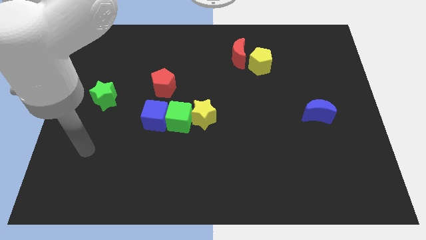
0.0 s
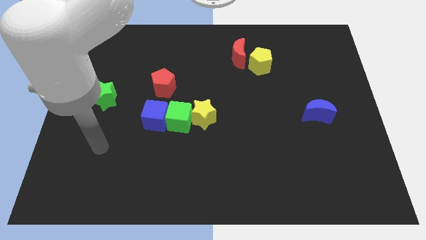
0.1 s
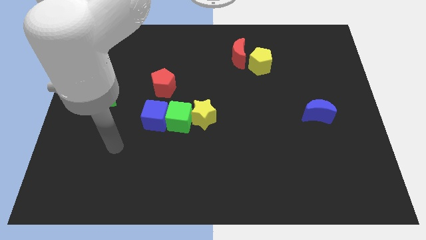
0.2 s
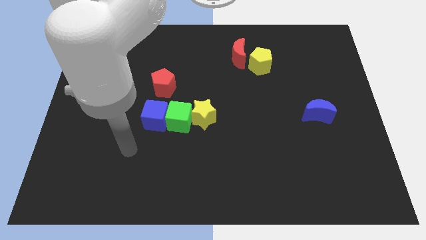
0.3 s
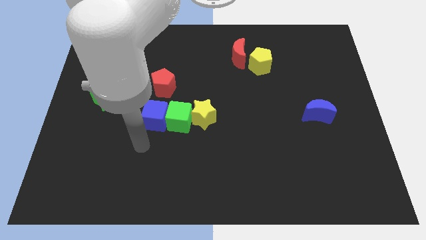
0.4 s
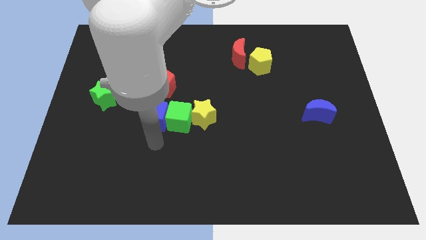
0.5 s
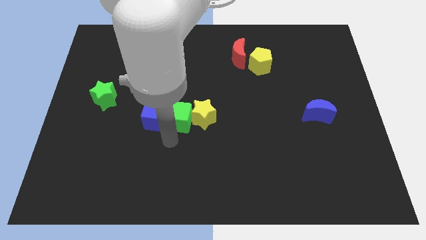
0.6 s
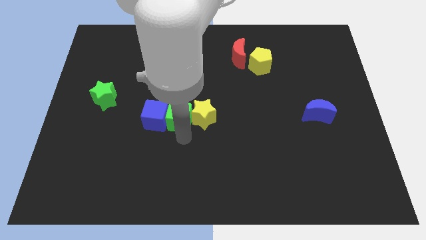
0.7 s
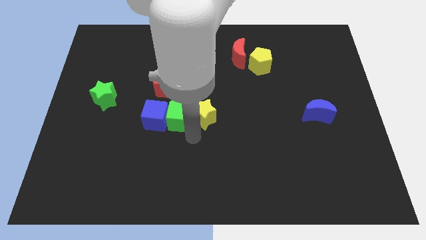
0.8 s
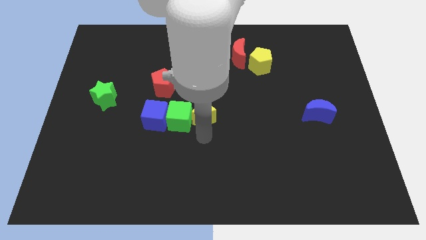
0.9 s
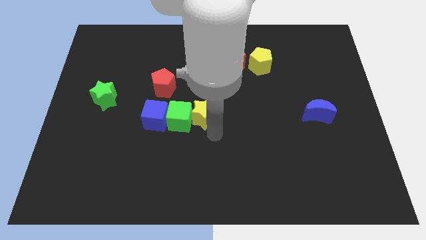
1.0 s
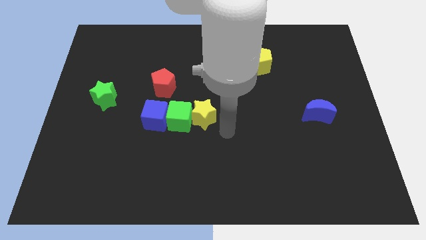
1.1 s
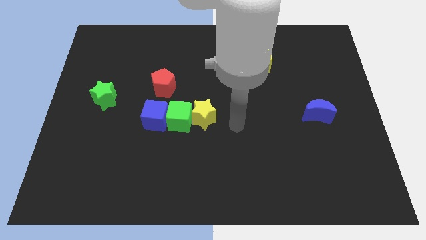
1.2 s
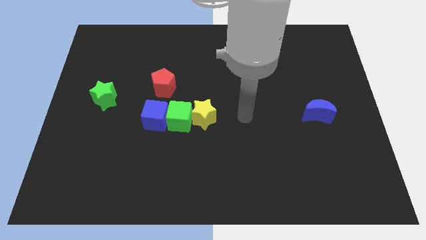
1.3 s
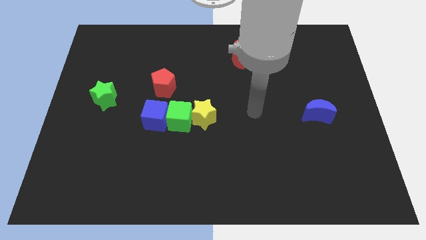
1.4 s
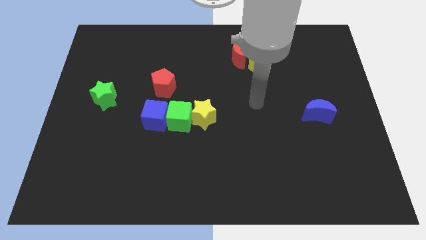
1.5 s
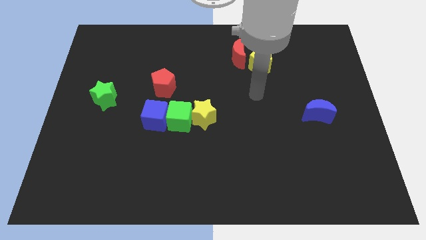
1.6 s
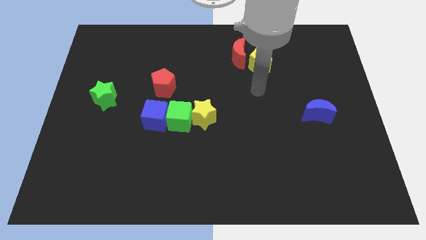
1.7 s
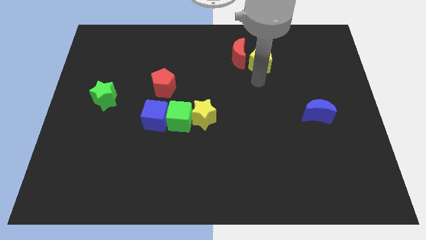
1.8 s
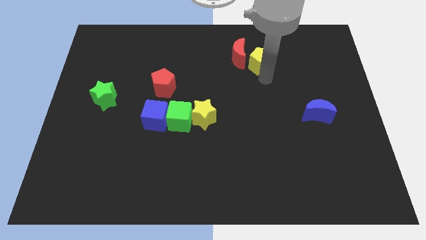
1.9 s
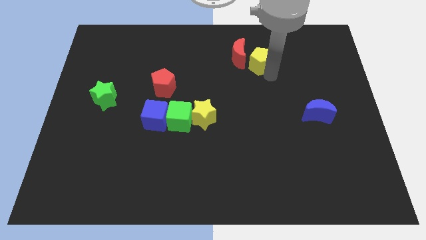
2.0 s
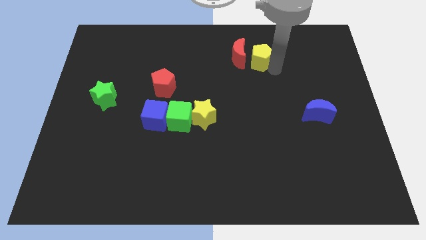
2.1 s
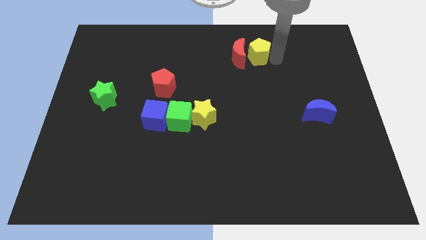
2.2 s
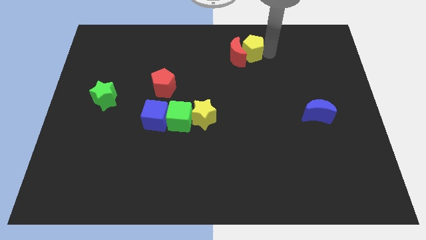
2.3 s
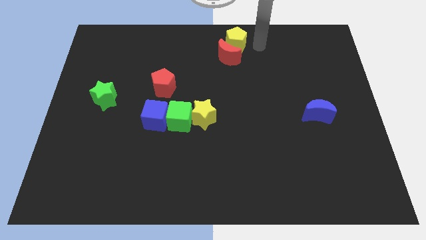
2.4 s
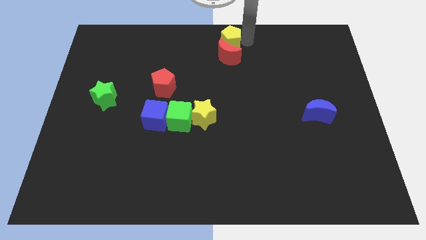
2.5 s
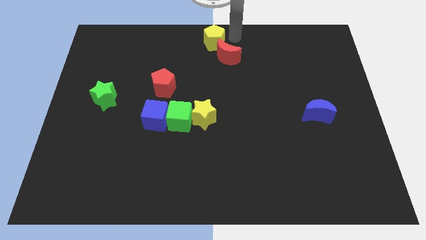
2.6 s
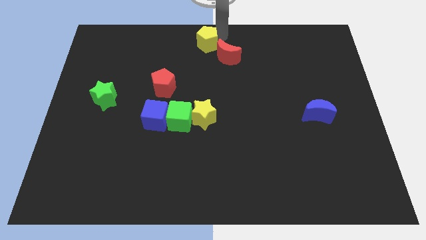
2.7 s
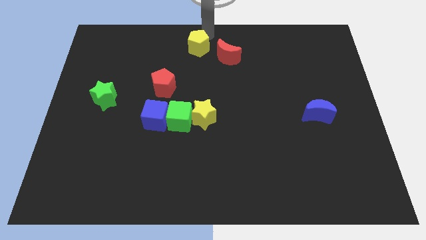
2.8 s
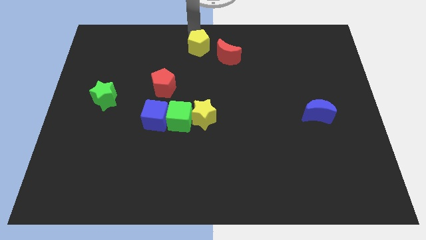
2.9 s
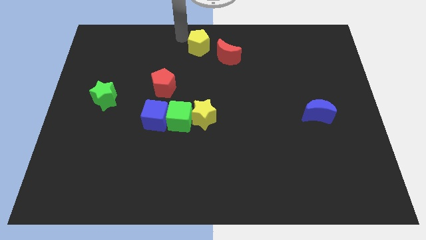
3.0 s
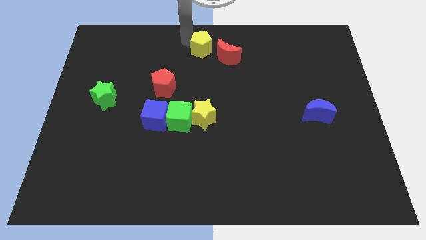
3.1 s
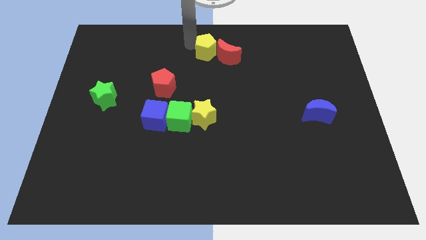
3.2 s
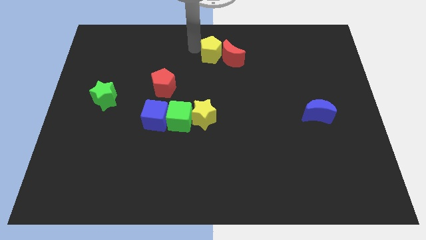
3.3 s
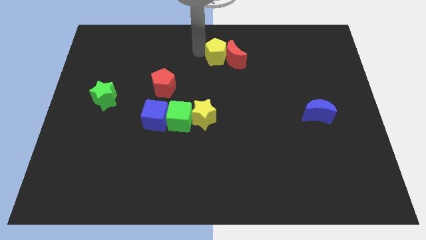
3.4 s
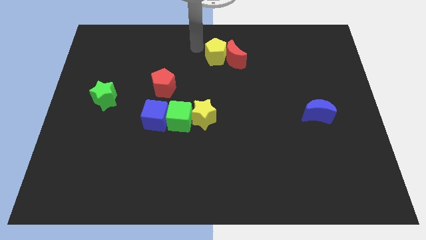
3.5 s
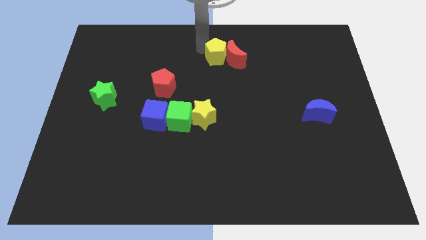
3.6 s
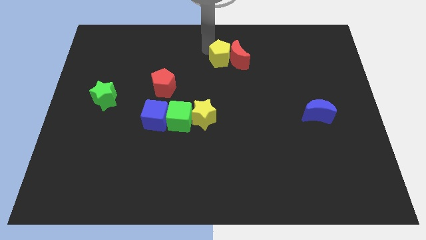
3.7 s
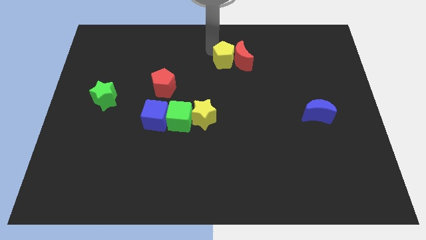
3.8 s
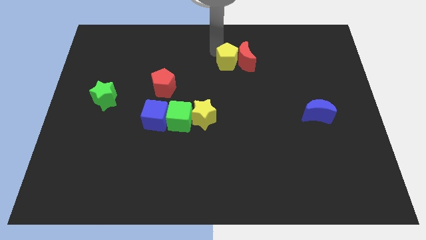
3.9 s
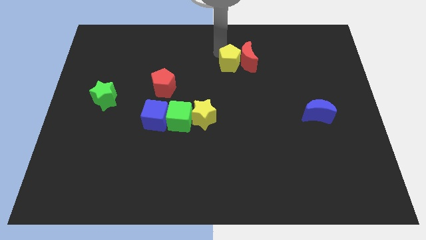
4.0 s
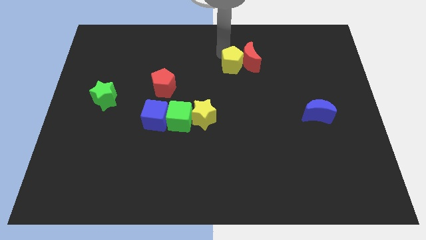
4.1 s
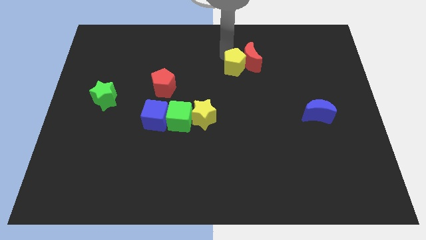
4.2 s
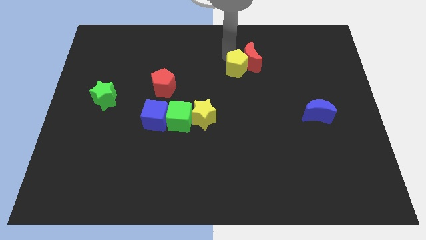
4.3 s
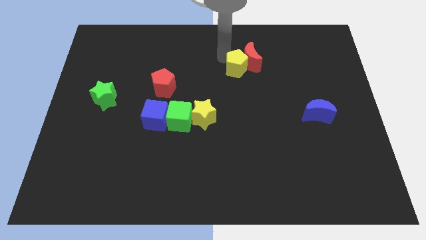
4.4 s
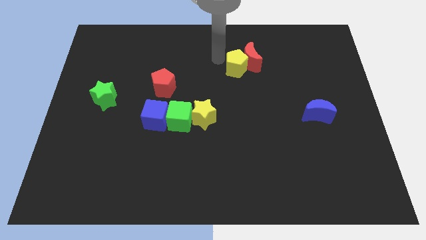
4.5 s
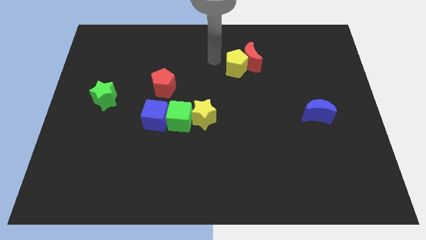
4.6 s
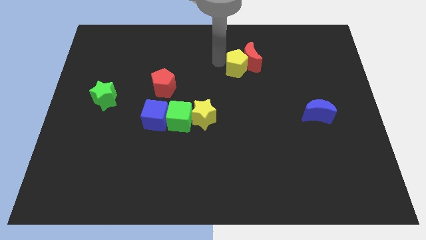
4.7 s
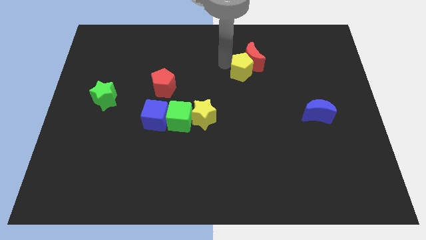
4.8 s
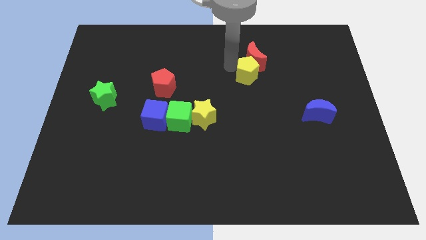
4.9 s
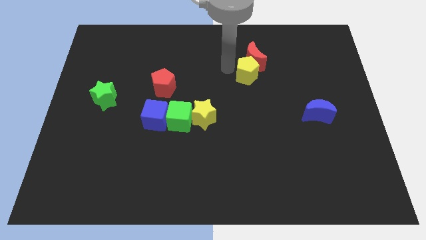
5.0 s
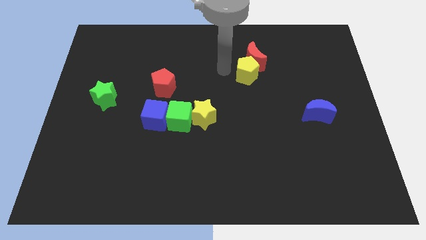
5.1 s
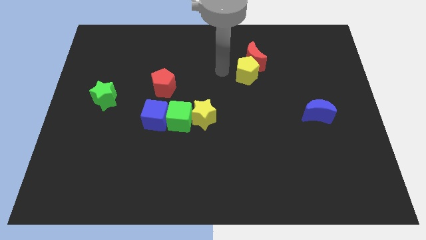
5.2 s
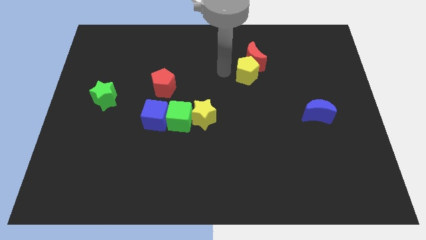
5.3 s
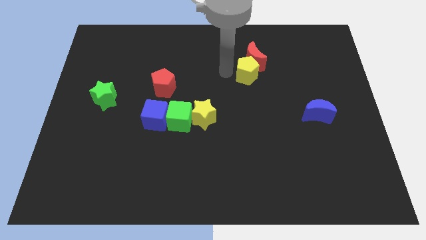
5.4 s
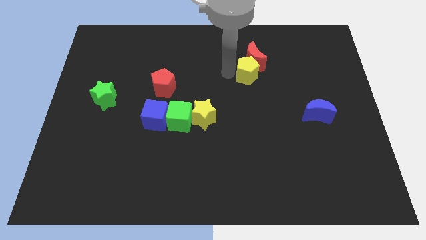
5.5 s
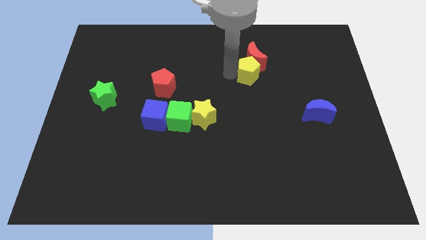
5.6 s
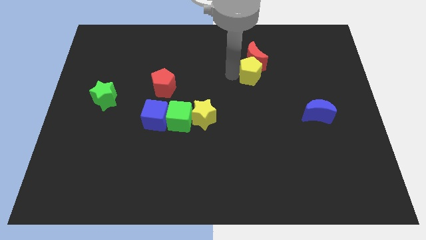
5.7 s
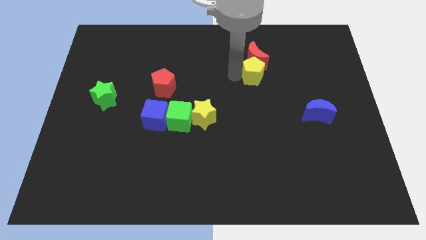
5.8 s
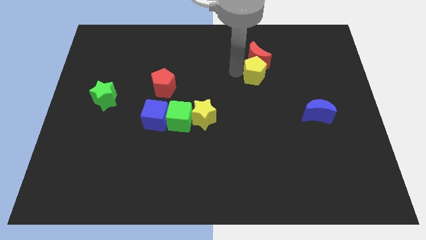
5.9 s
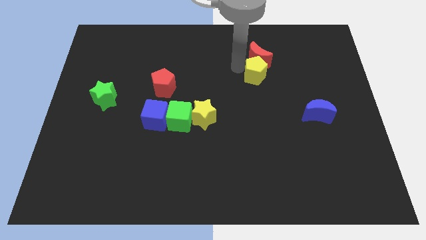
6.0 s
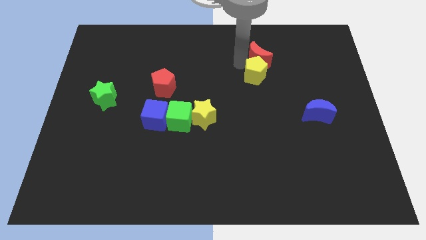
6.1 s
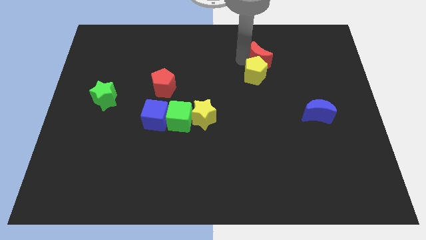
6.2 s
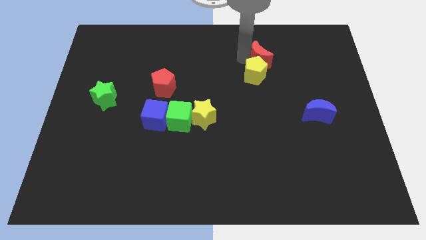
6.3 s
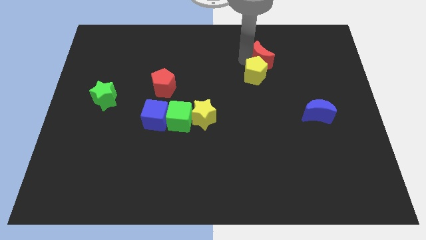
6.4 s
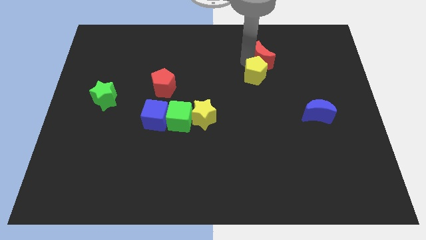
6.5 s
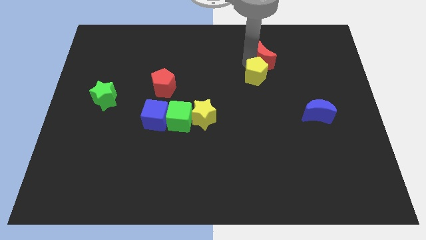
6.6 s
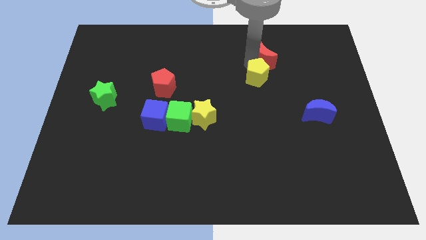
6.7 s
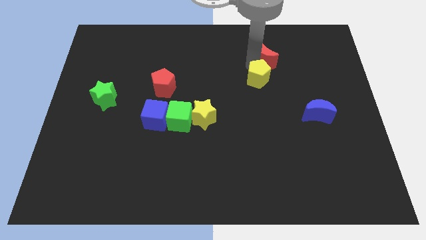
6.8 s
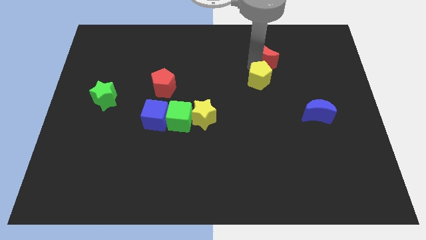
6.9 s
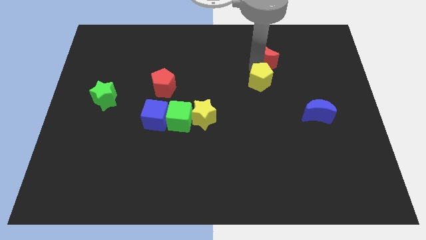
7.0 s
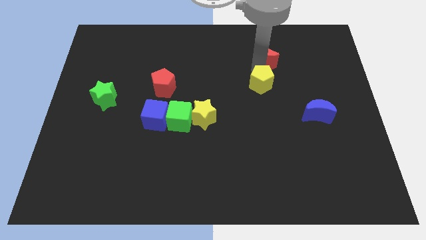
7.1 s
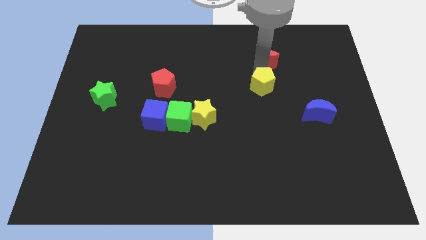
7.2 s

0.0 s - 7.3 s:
slightly move the yellow pentagon downwards

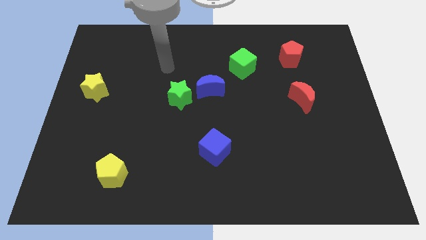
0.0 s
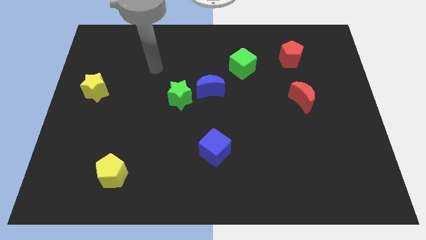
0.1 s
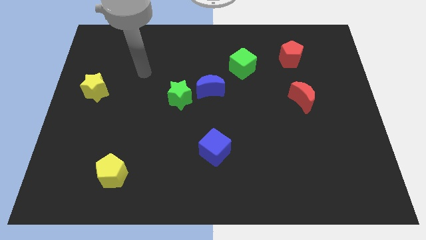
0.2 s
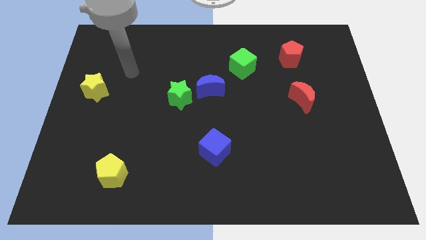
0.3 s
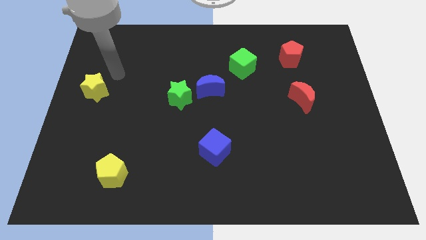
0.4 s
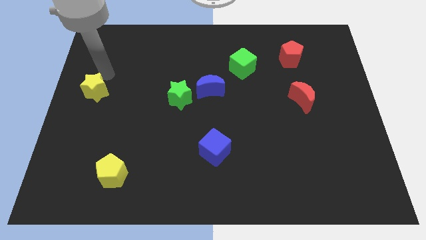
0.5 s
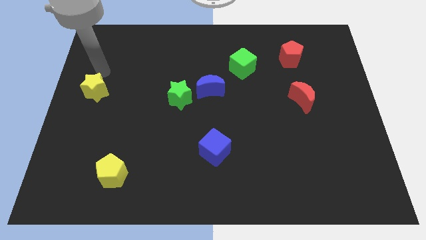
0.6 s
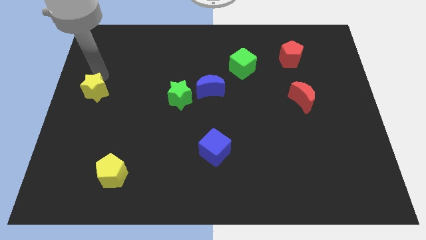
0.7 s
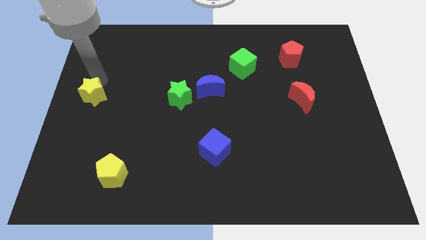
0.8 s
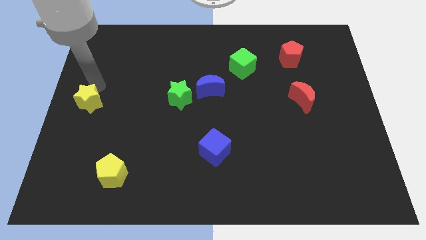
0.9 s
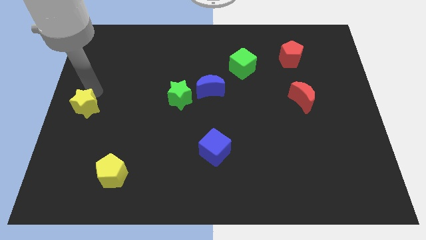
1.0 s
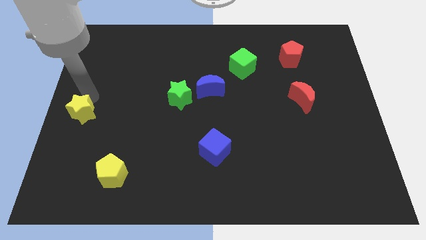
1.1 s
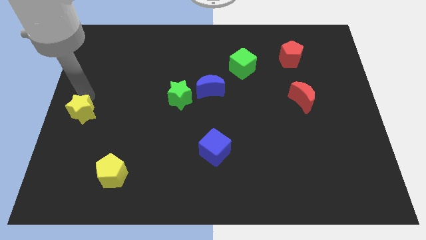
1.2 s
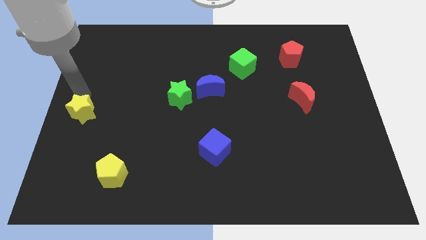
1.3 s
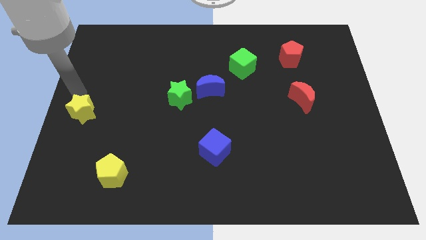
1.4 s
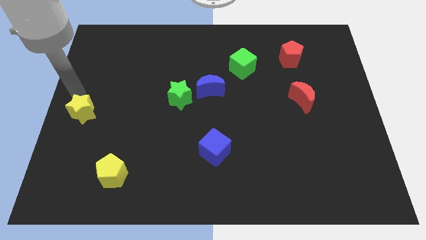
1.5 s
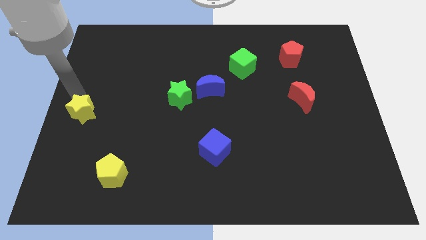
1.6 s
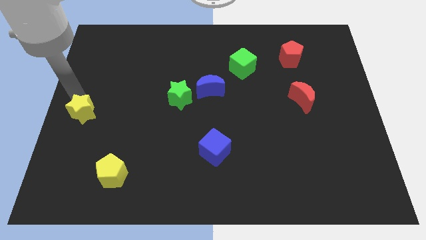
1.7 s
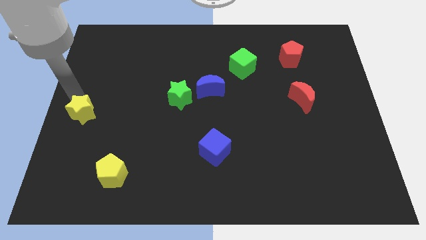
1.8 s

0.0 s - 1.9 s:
move the yellow star down a little
